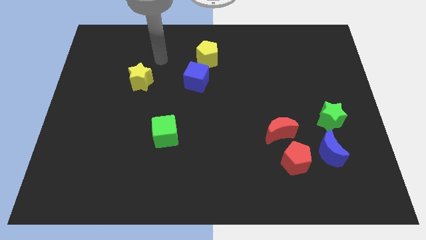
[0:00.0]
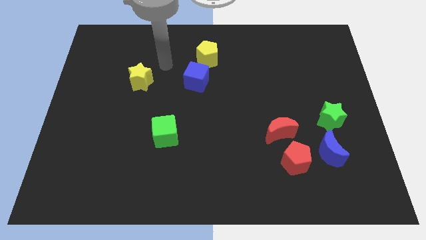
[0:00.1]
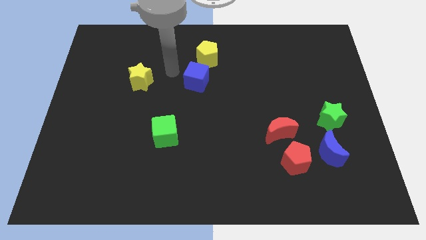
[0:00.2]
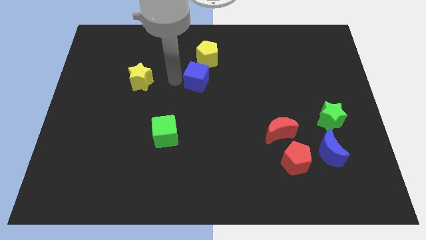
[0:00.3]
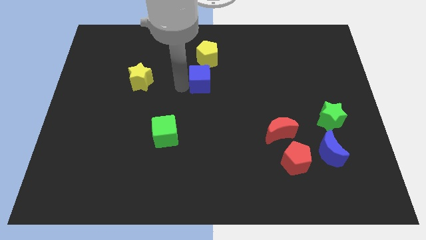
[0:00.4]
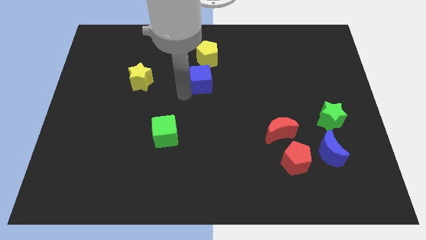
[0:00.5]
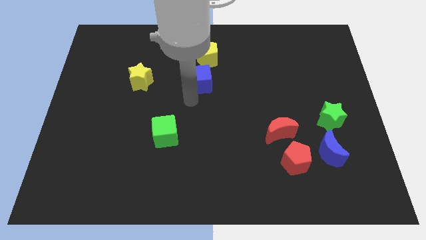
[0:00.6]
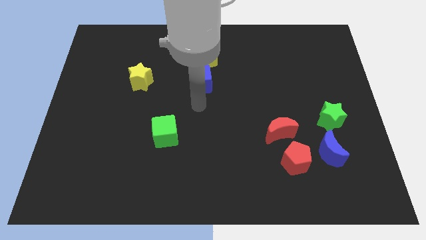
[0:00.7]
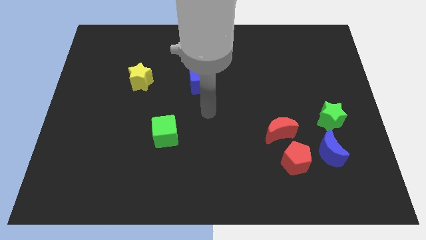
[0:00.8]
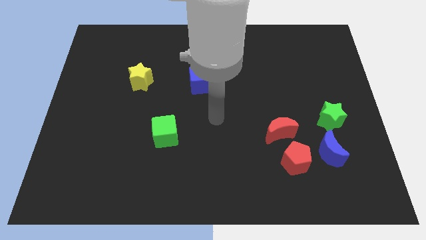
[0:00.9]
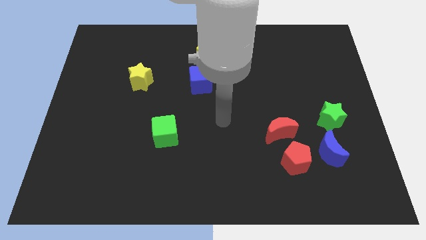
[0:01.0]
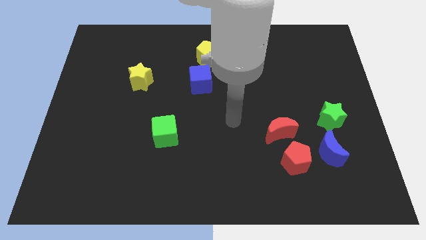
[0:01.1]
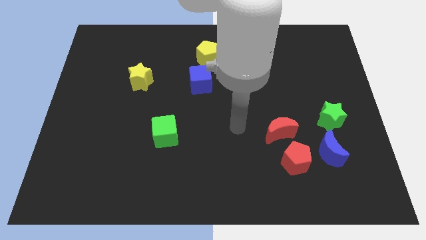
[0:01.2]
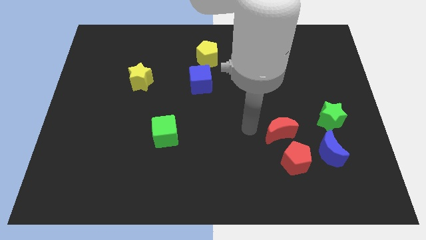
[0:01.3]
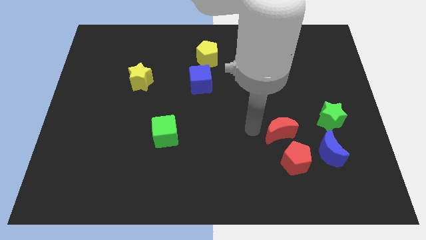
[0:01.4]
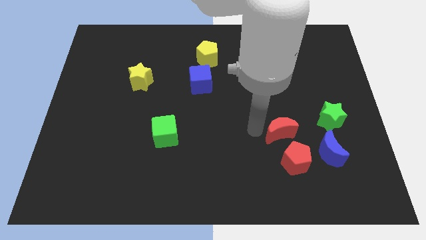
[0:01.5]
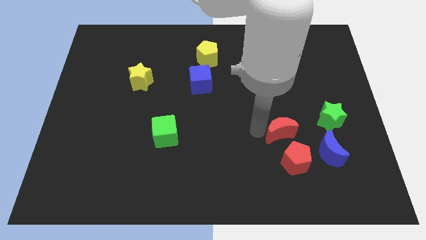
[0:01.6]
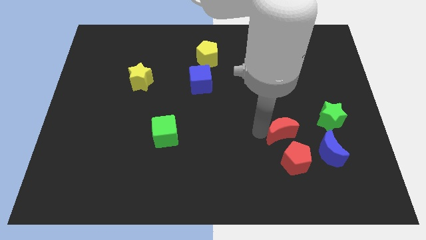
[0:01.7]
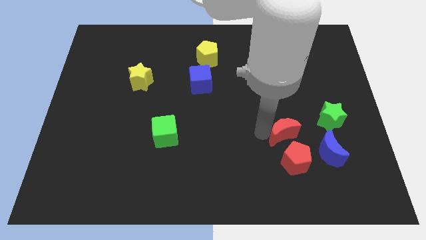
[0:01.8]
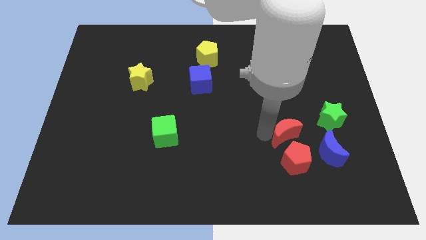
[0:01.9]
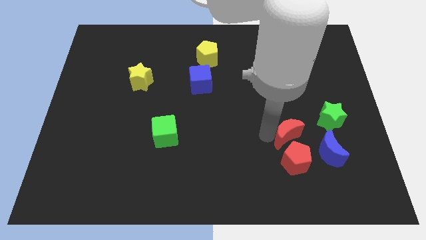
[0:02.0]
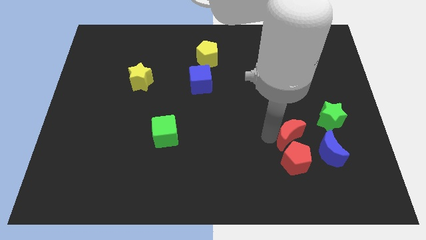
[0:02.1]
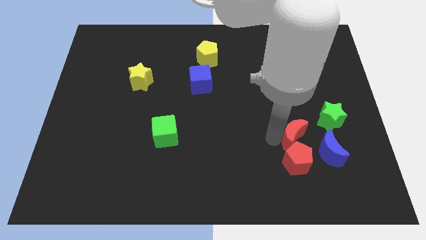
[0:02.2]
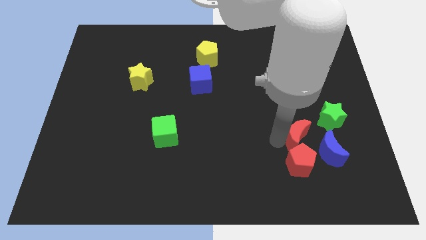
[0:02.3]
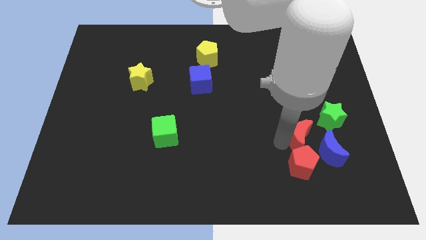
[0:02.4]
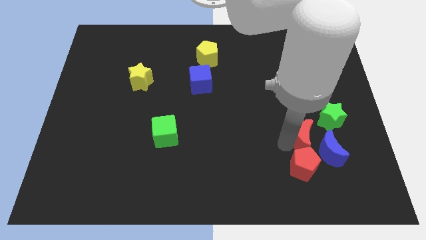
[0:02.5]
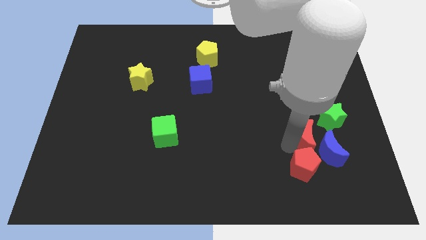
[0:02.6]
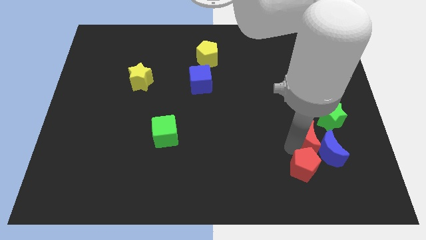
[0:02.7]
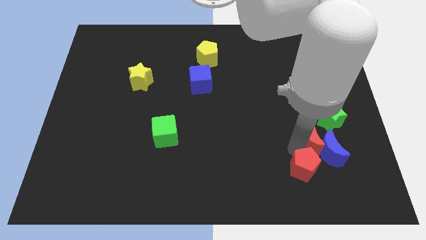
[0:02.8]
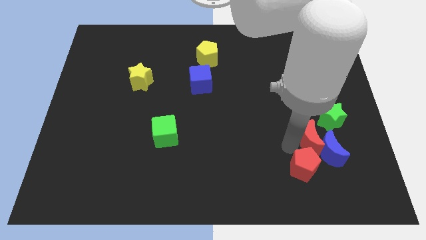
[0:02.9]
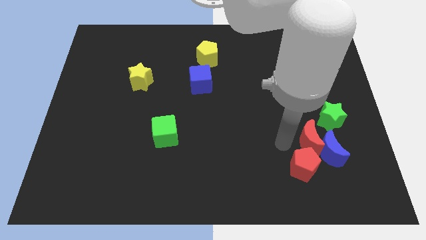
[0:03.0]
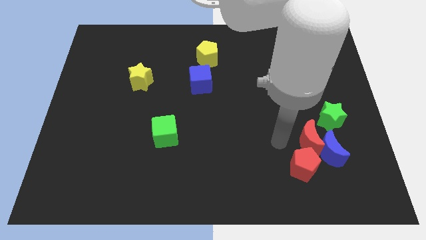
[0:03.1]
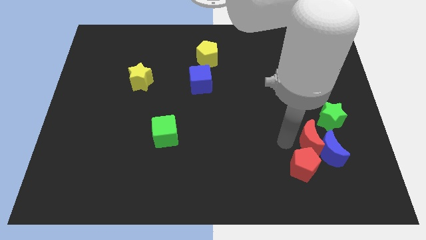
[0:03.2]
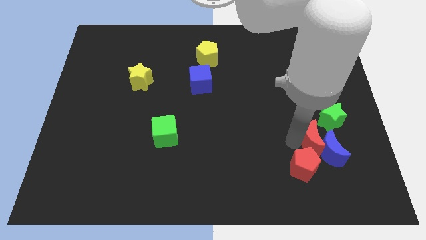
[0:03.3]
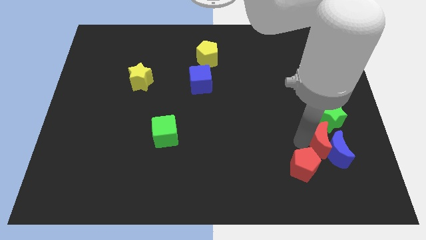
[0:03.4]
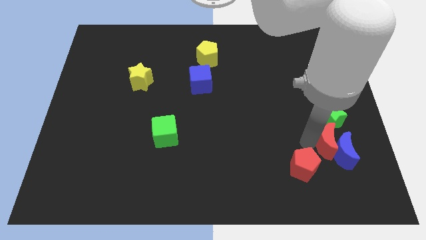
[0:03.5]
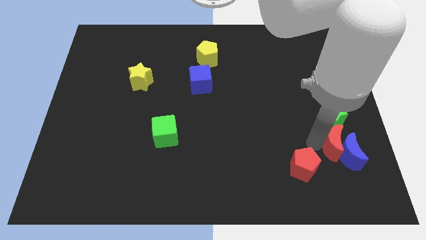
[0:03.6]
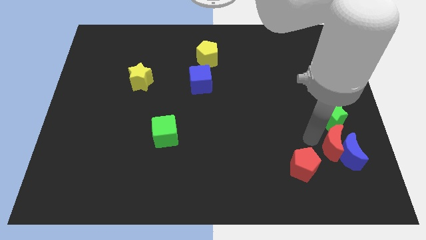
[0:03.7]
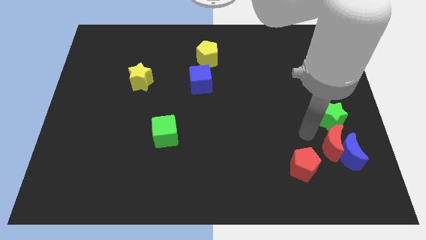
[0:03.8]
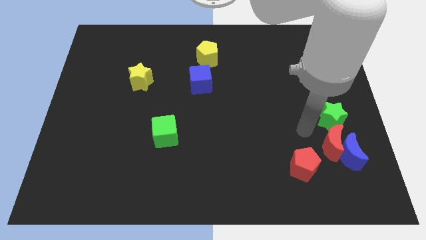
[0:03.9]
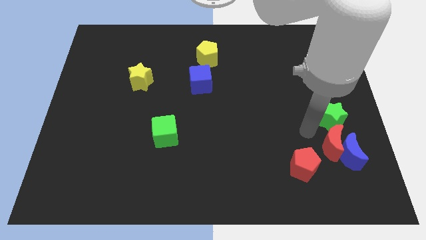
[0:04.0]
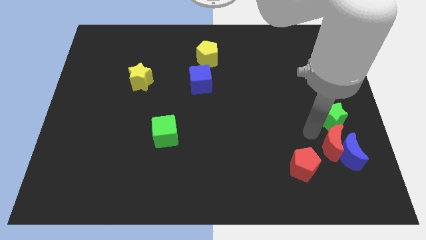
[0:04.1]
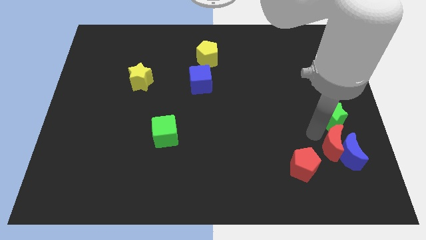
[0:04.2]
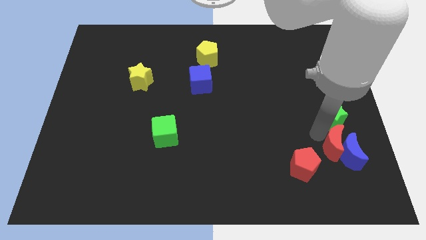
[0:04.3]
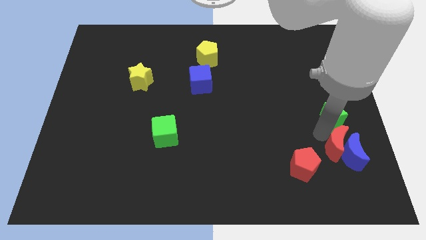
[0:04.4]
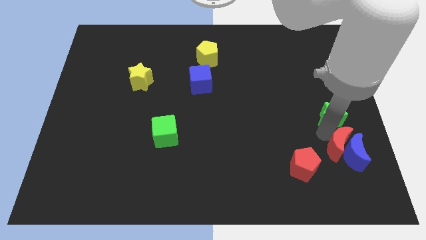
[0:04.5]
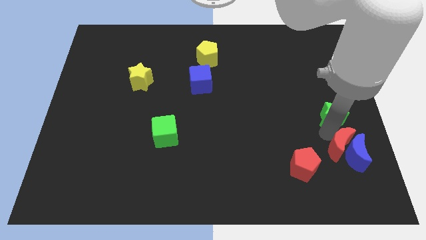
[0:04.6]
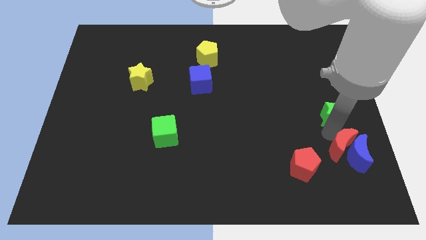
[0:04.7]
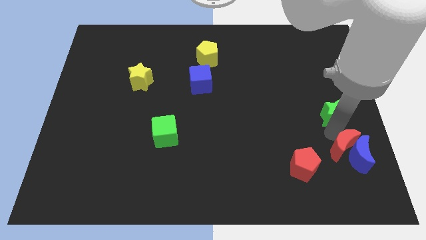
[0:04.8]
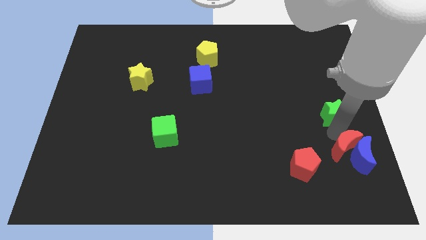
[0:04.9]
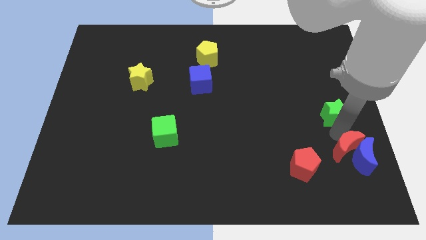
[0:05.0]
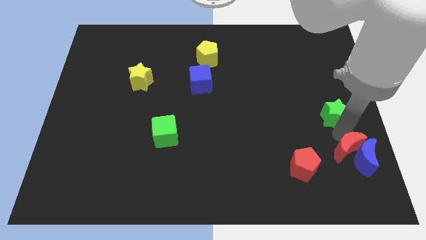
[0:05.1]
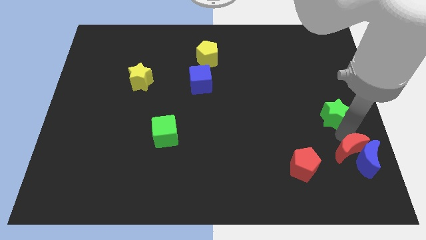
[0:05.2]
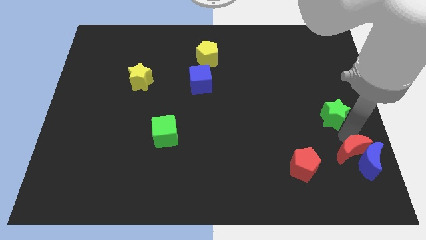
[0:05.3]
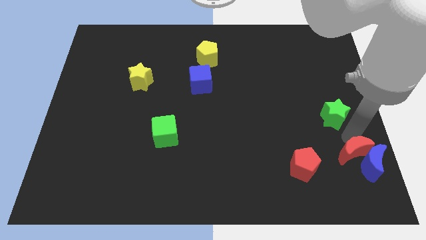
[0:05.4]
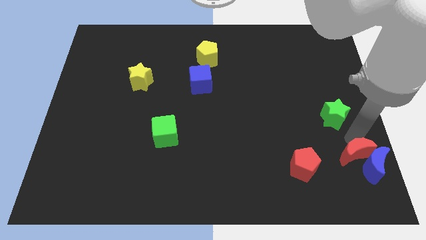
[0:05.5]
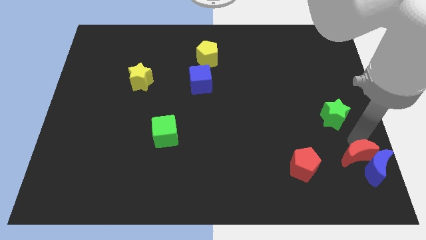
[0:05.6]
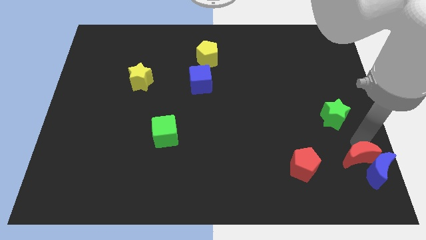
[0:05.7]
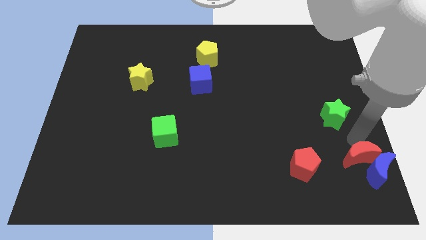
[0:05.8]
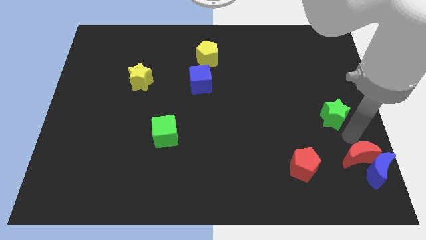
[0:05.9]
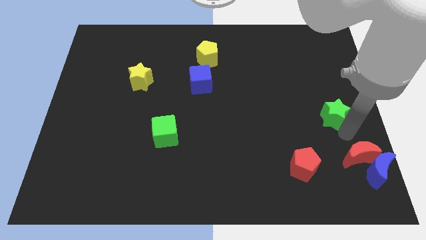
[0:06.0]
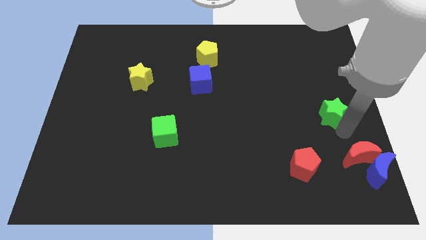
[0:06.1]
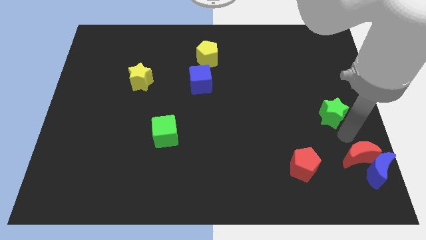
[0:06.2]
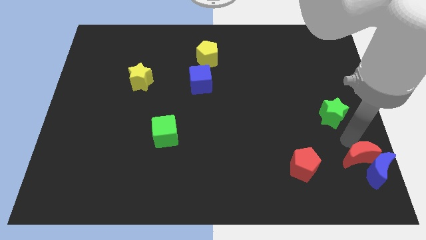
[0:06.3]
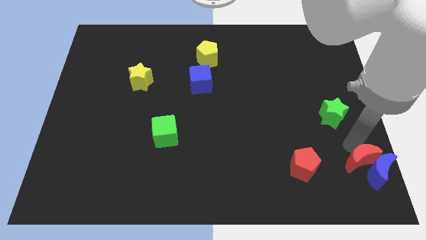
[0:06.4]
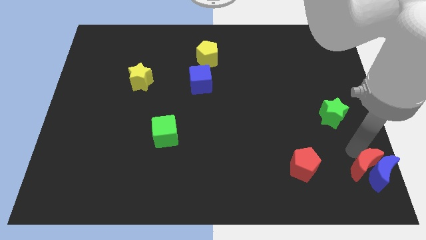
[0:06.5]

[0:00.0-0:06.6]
put the red moon to the bottom right corner
